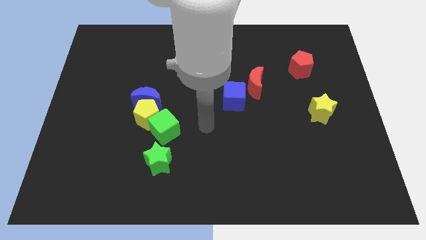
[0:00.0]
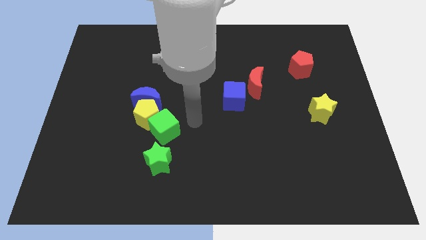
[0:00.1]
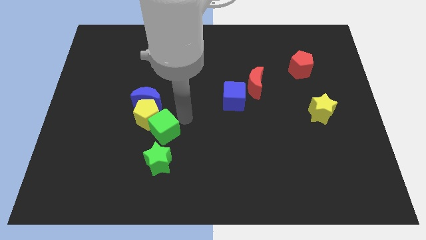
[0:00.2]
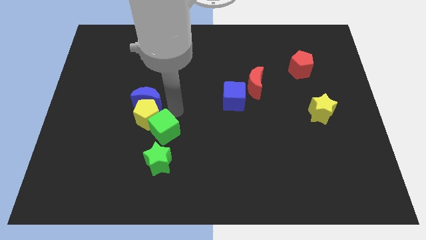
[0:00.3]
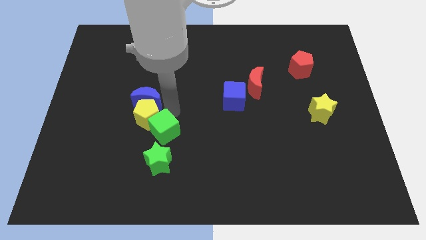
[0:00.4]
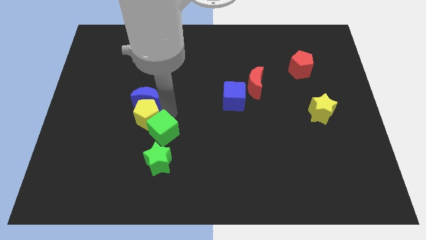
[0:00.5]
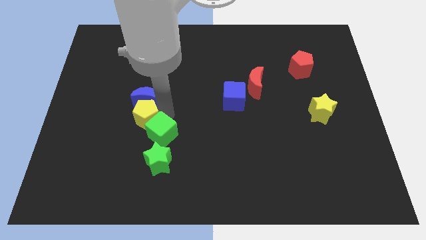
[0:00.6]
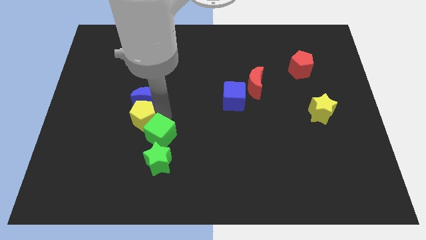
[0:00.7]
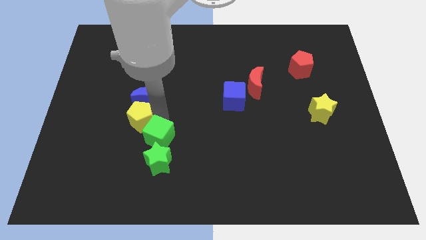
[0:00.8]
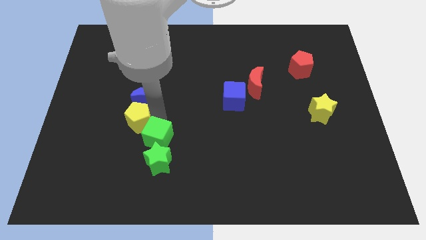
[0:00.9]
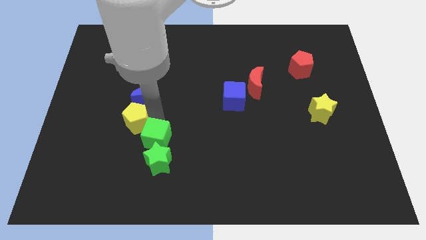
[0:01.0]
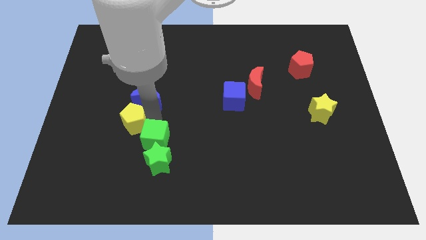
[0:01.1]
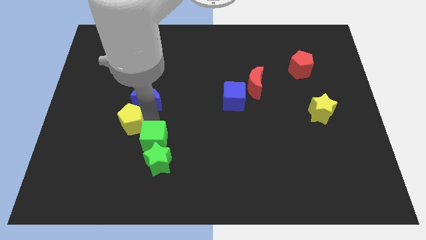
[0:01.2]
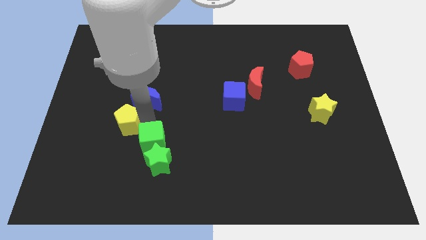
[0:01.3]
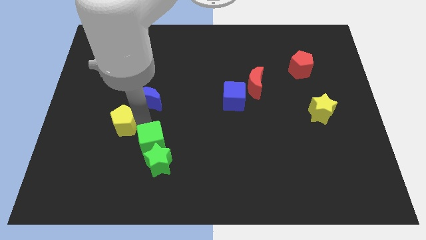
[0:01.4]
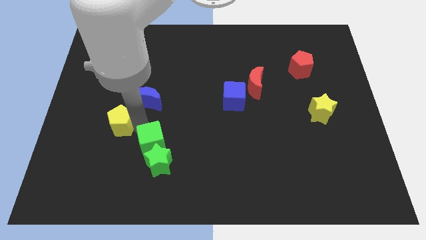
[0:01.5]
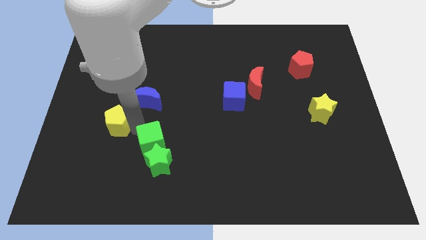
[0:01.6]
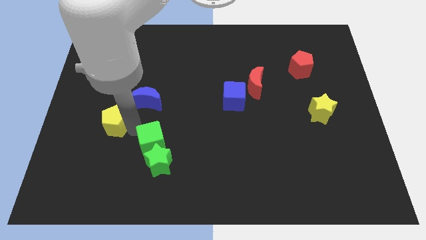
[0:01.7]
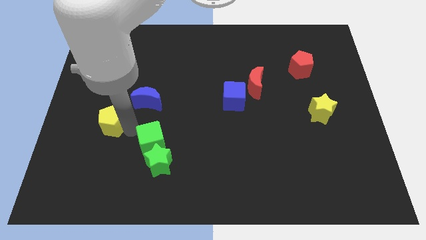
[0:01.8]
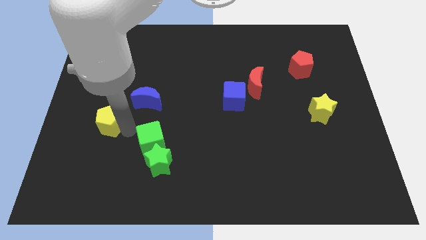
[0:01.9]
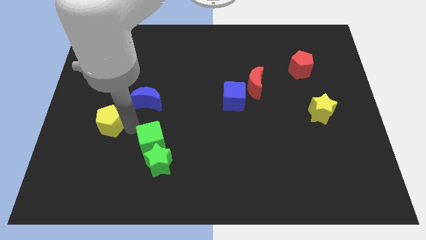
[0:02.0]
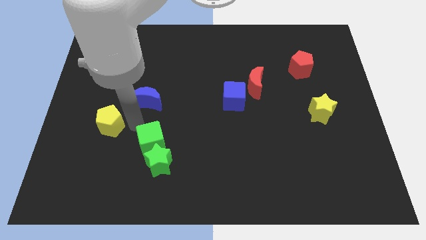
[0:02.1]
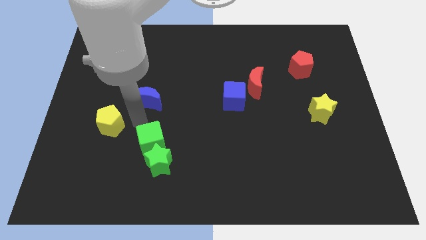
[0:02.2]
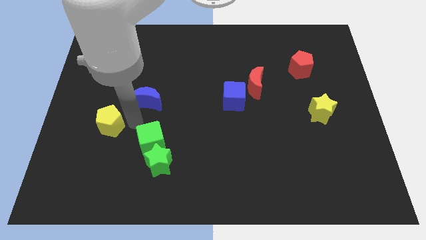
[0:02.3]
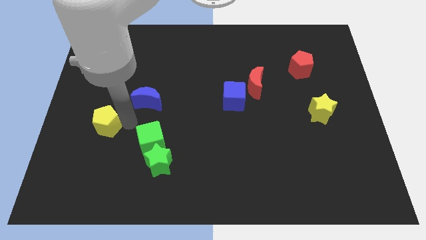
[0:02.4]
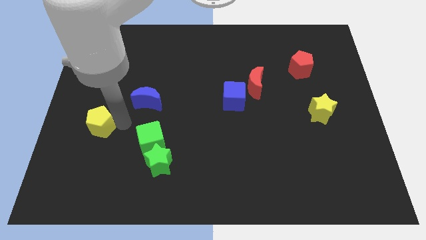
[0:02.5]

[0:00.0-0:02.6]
pull the yellow pentagon apart from the blue moon and green cube

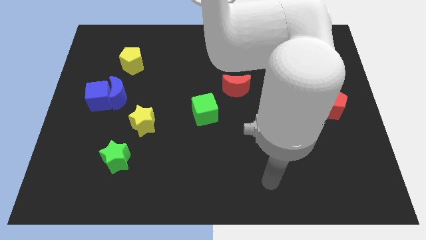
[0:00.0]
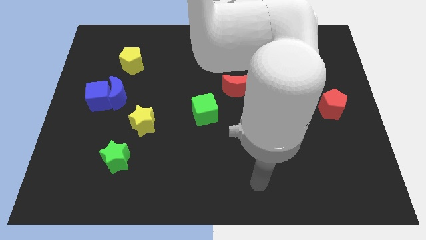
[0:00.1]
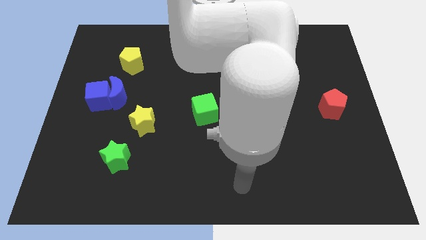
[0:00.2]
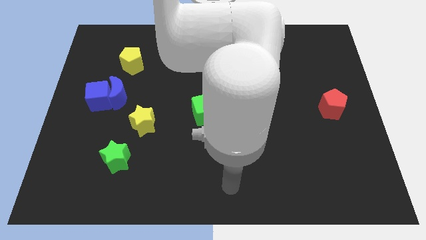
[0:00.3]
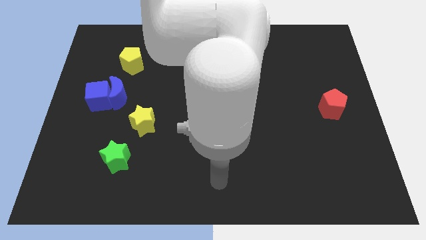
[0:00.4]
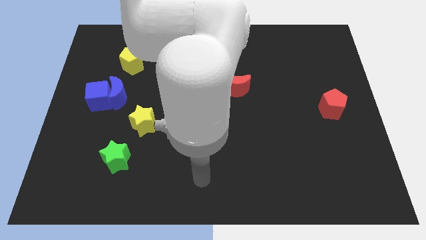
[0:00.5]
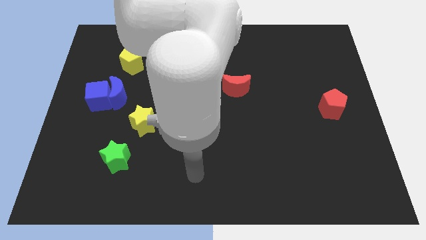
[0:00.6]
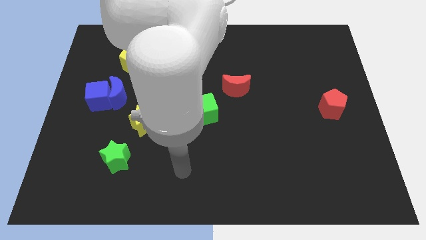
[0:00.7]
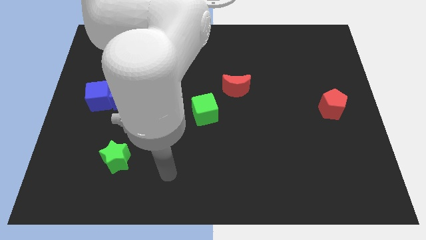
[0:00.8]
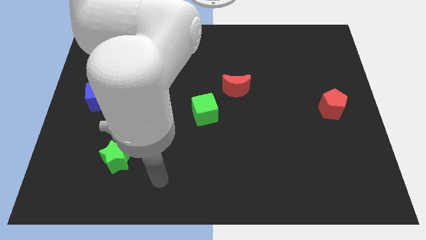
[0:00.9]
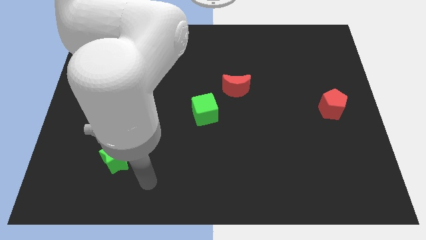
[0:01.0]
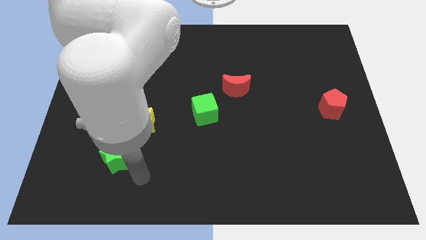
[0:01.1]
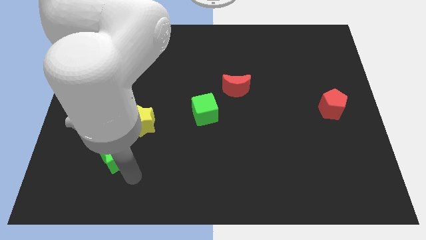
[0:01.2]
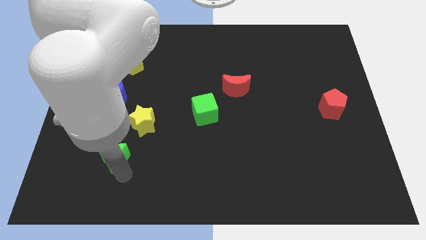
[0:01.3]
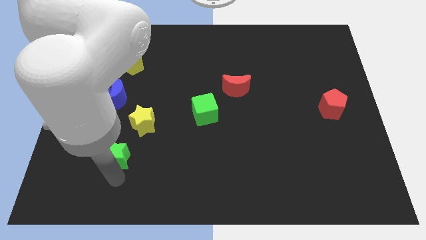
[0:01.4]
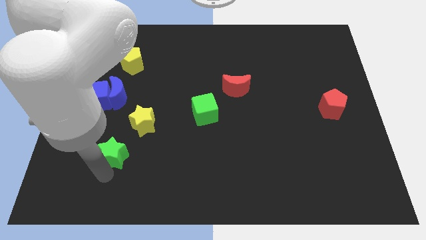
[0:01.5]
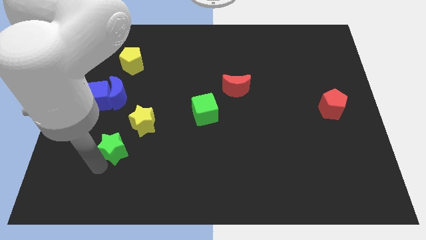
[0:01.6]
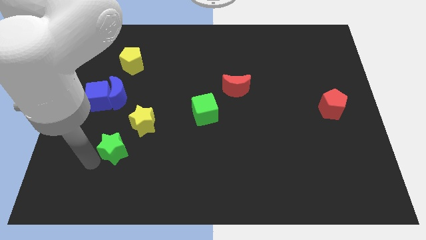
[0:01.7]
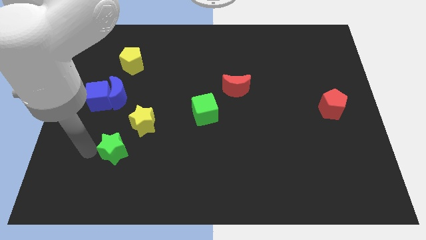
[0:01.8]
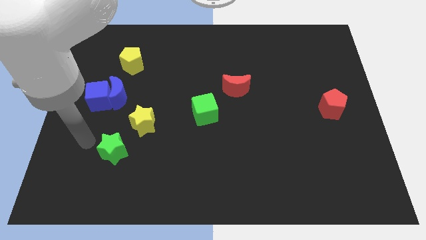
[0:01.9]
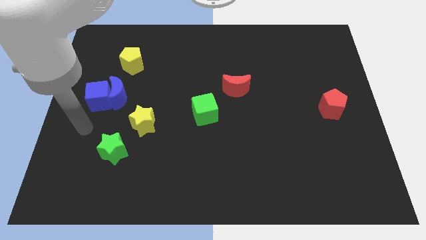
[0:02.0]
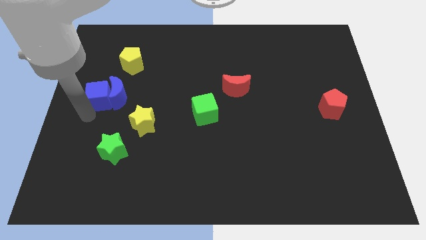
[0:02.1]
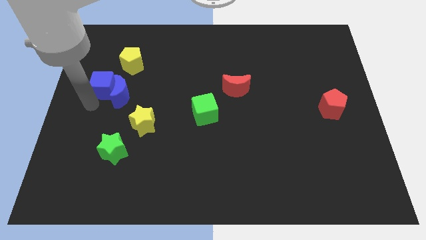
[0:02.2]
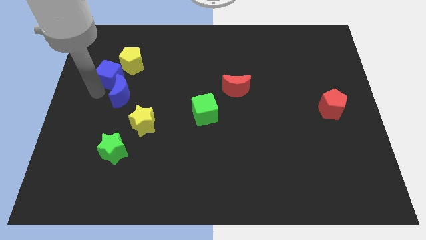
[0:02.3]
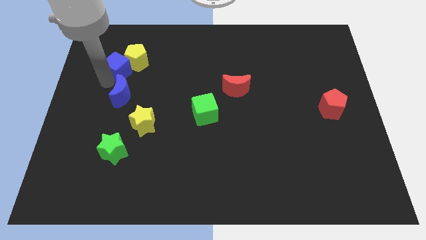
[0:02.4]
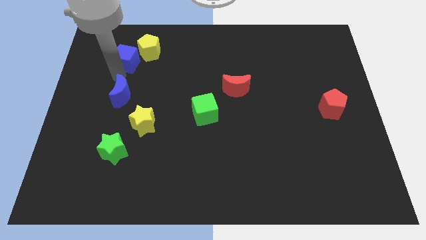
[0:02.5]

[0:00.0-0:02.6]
separate the blue moon from the blue cube

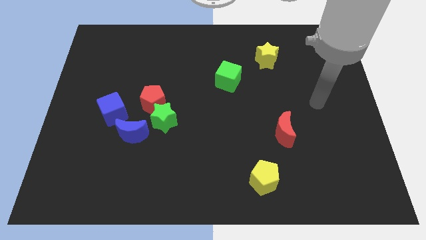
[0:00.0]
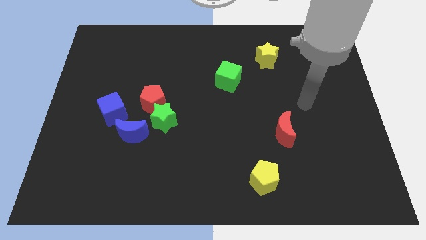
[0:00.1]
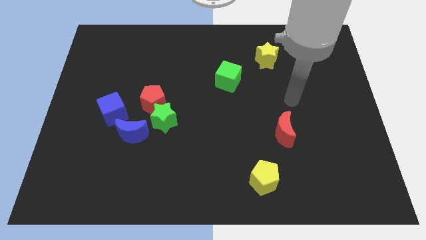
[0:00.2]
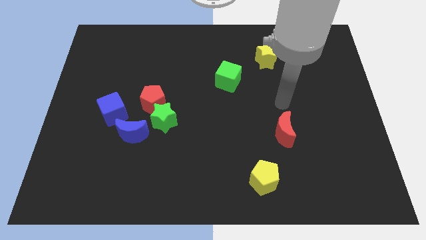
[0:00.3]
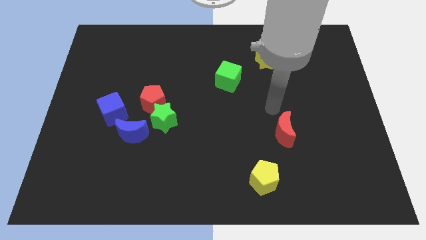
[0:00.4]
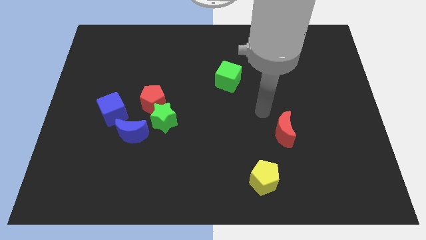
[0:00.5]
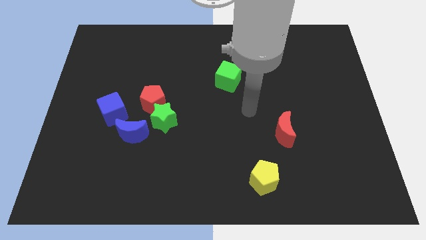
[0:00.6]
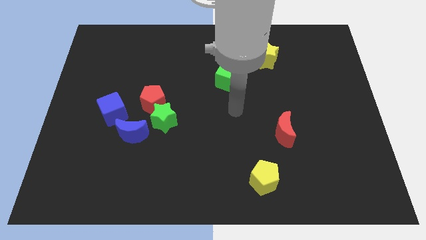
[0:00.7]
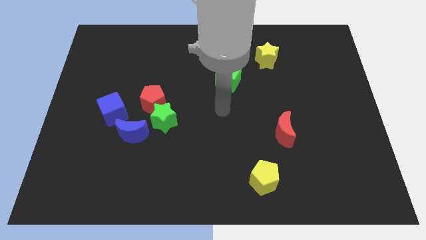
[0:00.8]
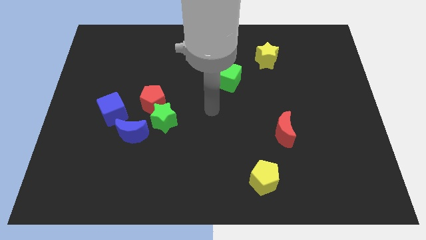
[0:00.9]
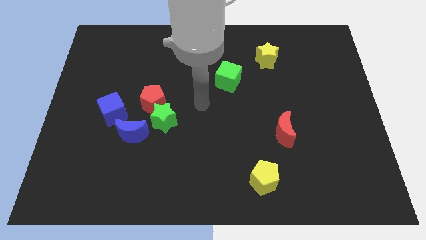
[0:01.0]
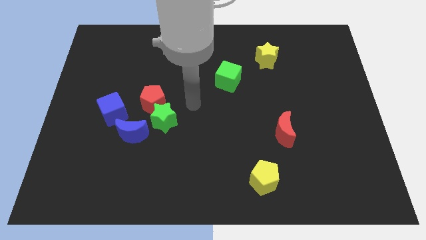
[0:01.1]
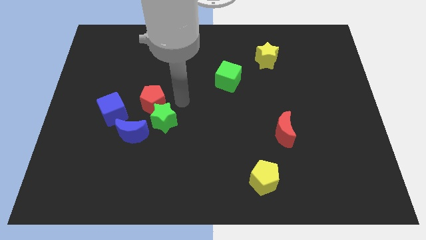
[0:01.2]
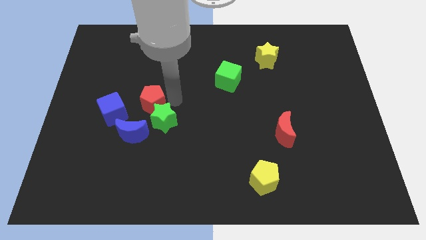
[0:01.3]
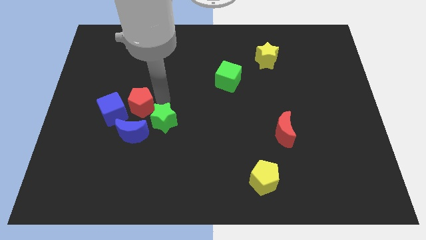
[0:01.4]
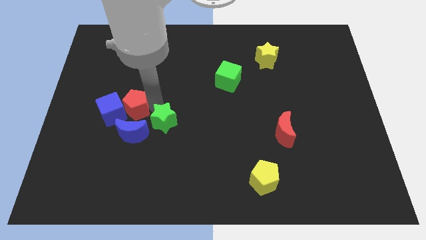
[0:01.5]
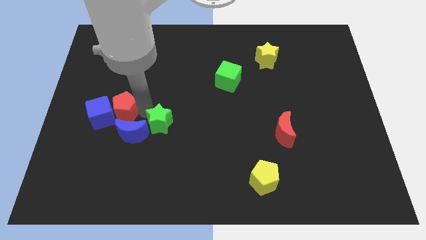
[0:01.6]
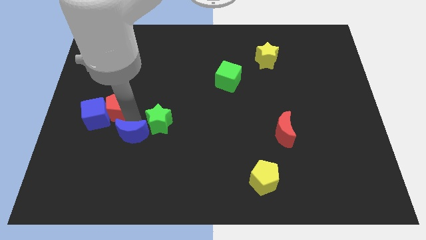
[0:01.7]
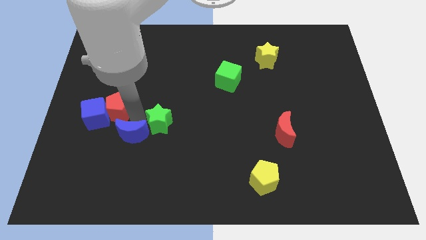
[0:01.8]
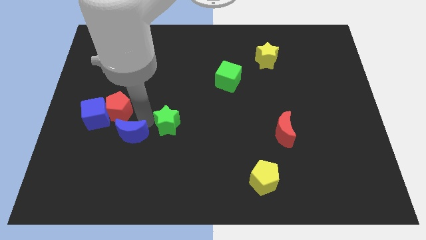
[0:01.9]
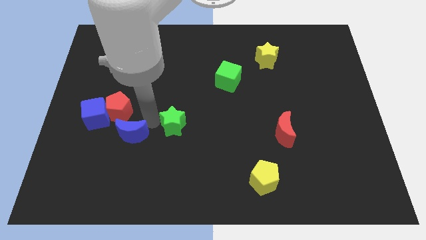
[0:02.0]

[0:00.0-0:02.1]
move the green star away from the red pentagon and blue moon

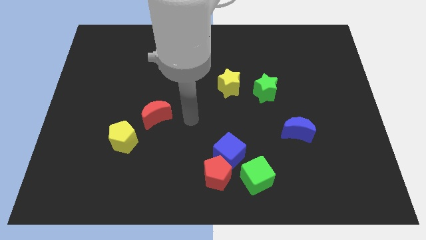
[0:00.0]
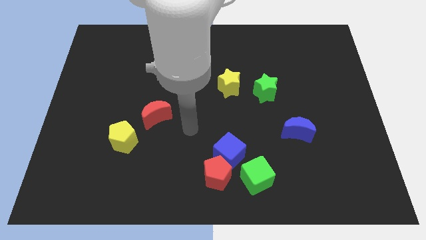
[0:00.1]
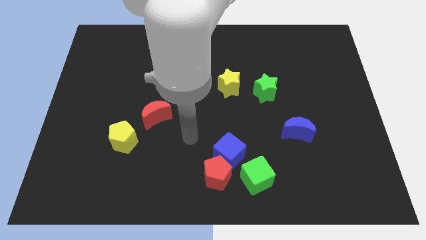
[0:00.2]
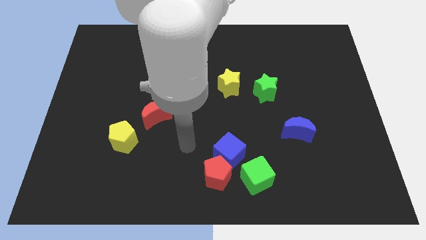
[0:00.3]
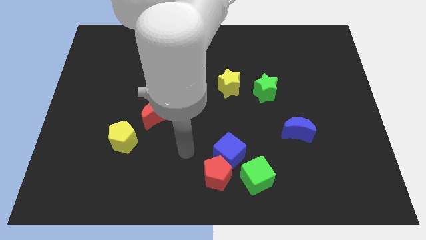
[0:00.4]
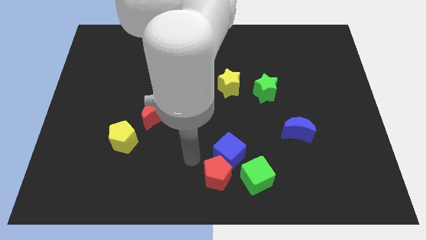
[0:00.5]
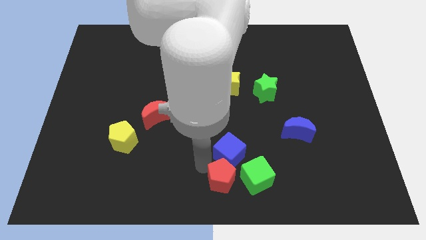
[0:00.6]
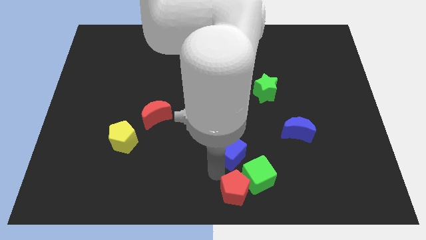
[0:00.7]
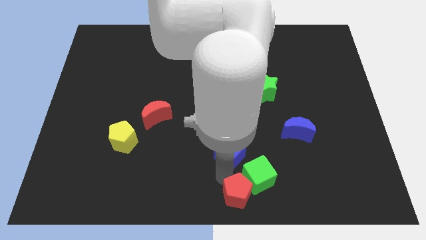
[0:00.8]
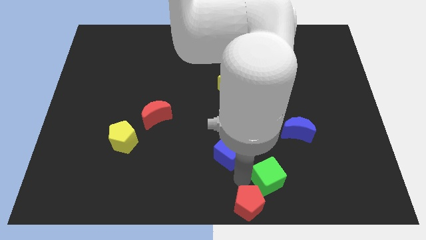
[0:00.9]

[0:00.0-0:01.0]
pull the blue cube apart from the red pentagon and green cube

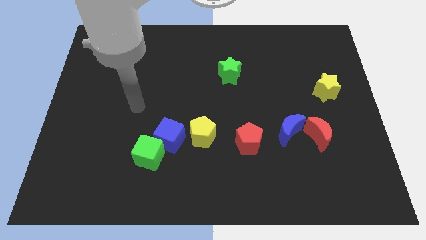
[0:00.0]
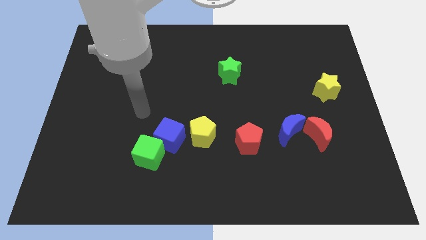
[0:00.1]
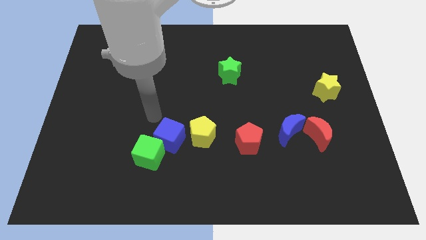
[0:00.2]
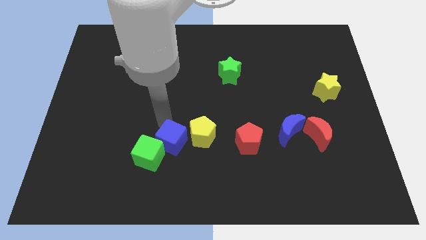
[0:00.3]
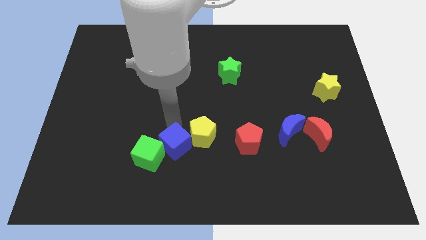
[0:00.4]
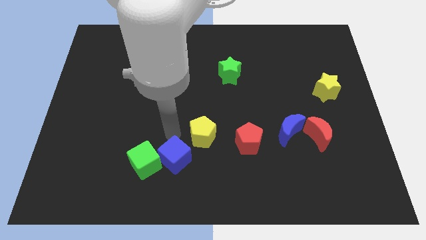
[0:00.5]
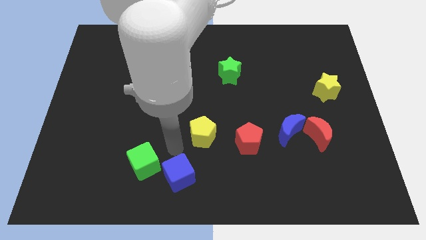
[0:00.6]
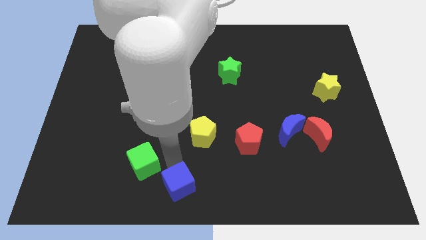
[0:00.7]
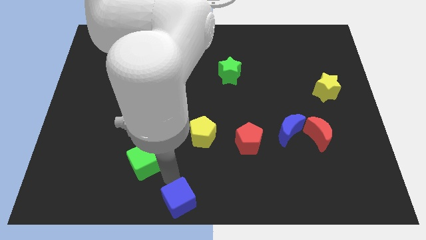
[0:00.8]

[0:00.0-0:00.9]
separate the green cube from the blue cube

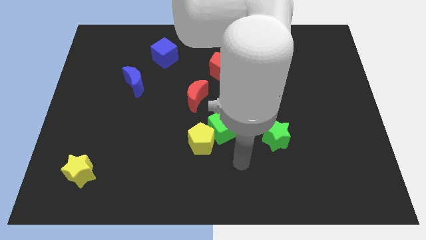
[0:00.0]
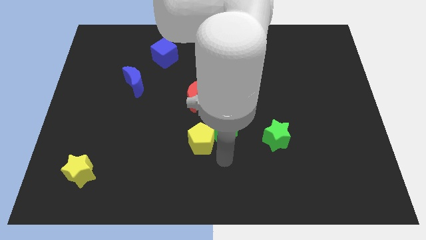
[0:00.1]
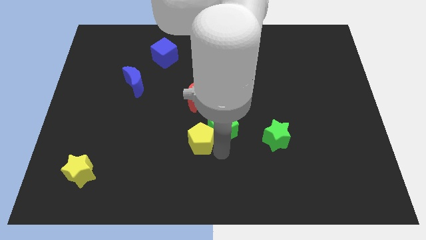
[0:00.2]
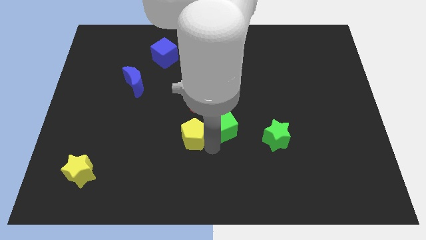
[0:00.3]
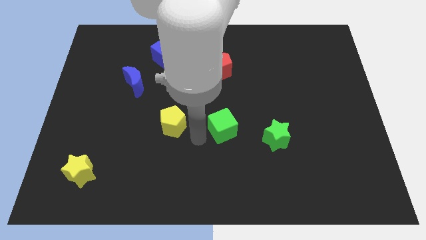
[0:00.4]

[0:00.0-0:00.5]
pull the green cube apart from the yellow pentagon
